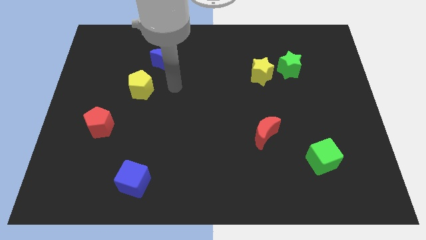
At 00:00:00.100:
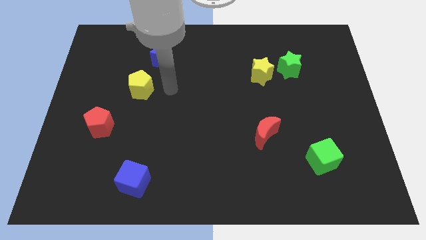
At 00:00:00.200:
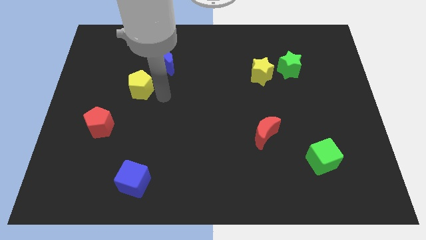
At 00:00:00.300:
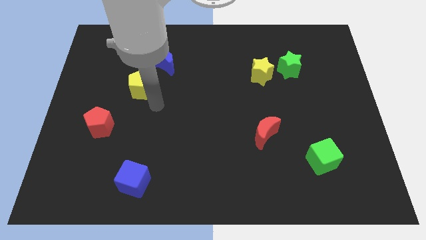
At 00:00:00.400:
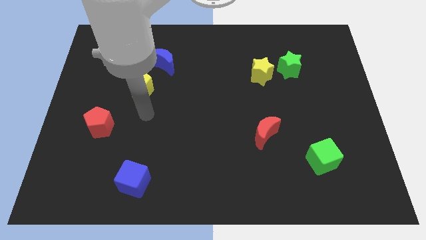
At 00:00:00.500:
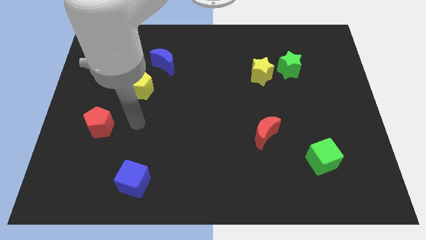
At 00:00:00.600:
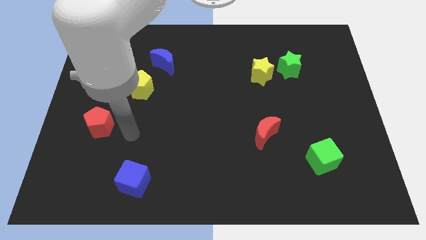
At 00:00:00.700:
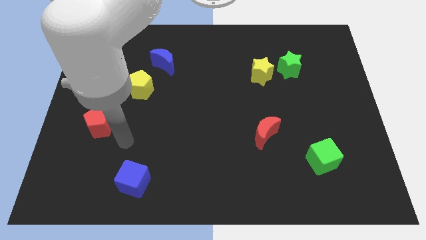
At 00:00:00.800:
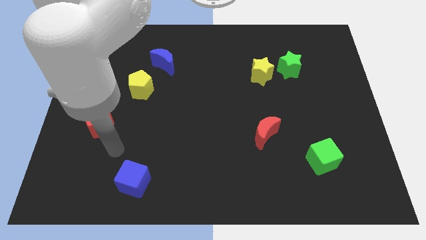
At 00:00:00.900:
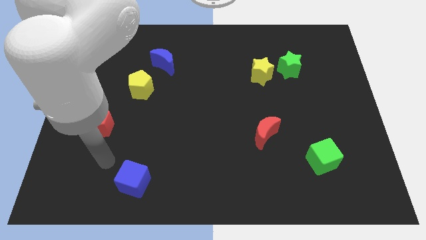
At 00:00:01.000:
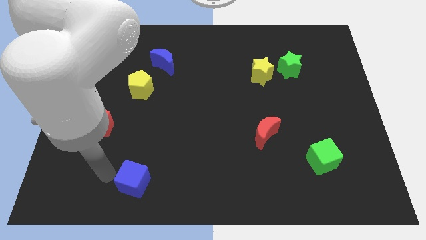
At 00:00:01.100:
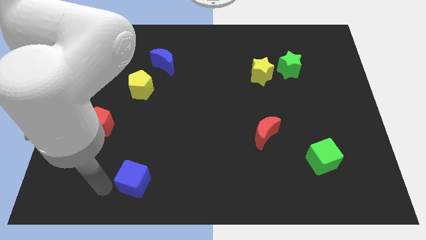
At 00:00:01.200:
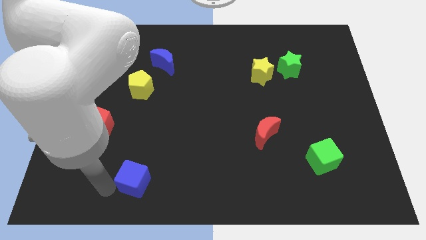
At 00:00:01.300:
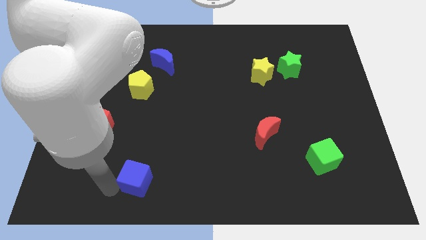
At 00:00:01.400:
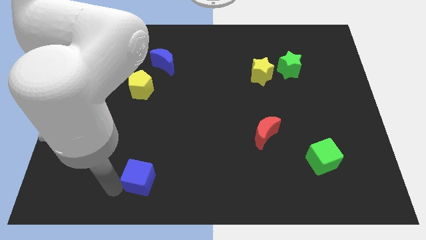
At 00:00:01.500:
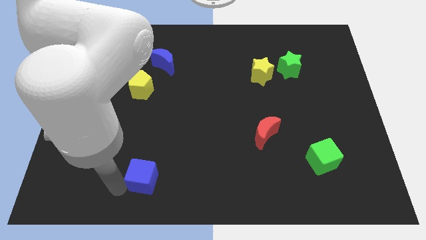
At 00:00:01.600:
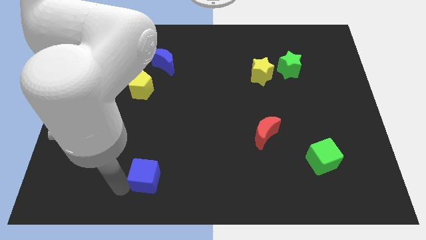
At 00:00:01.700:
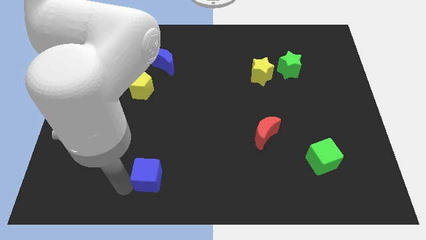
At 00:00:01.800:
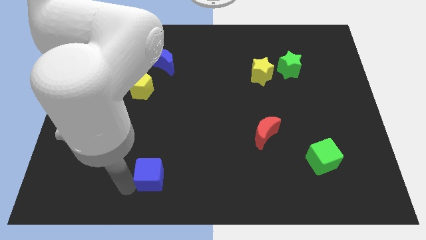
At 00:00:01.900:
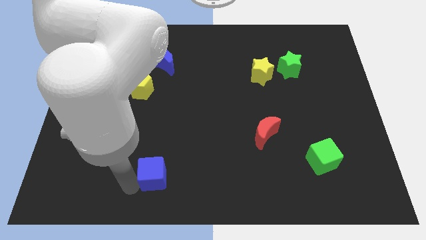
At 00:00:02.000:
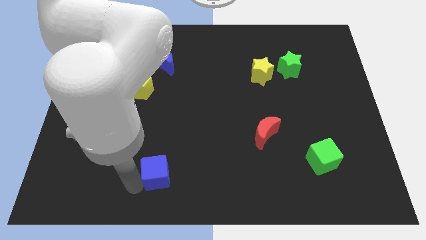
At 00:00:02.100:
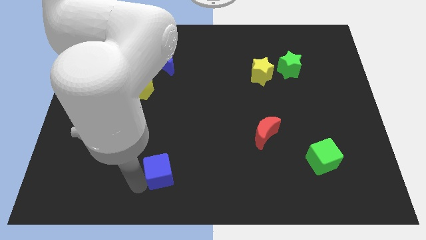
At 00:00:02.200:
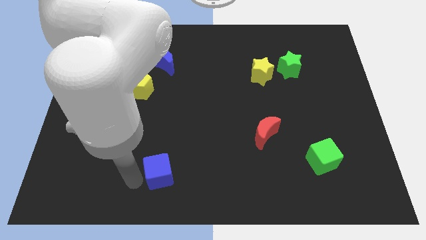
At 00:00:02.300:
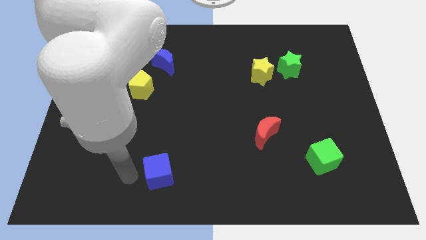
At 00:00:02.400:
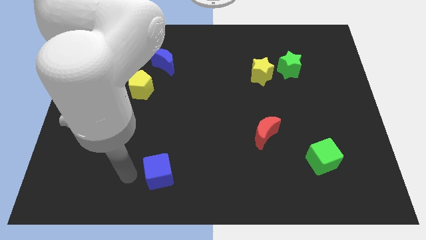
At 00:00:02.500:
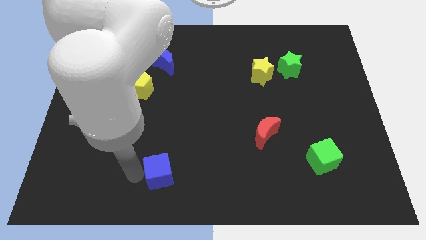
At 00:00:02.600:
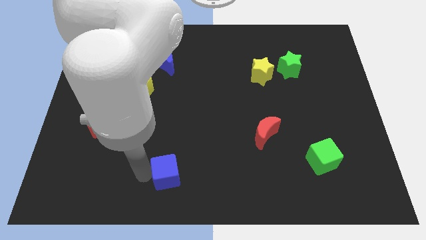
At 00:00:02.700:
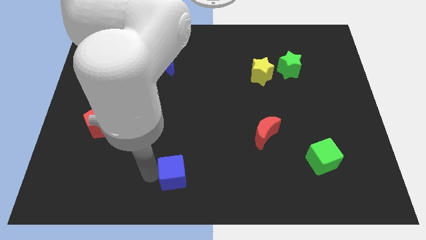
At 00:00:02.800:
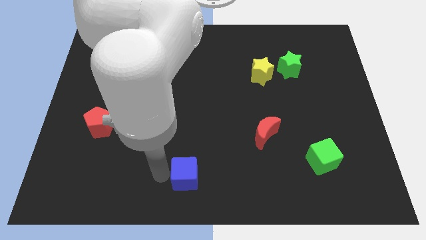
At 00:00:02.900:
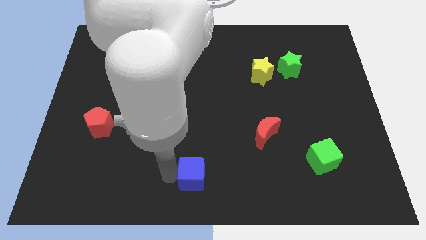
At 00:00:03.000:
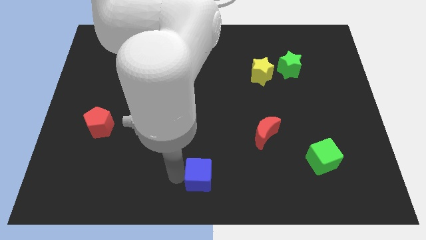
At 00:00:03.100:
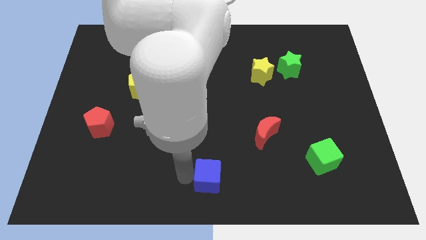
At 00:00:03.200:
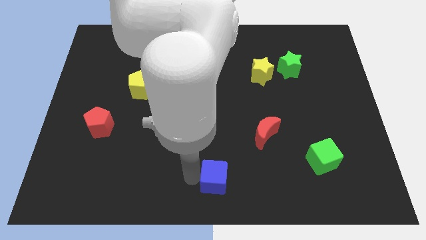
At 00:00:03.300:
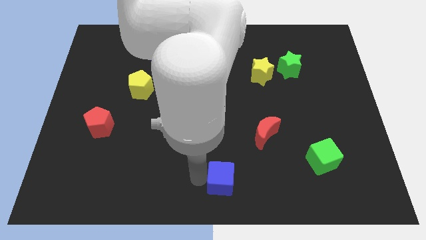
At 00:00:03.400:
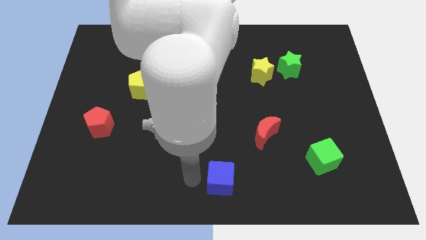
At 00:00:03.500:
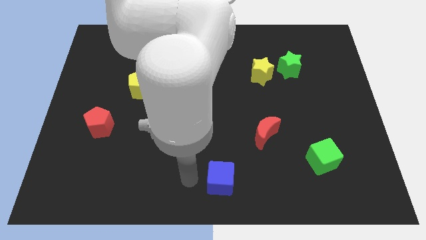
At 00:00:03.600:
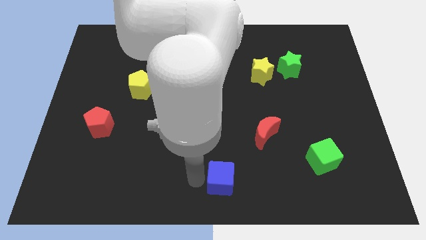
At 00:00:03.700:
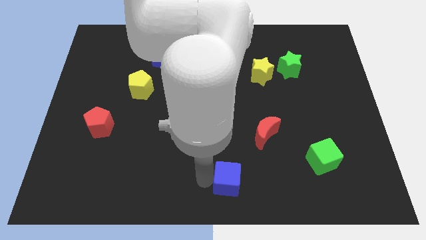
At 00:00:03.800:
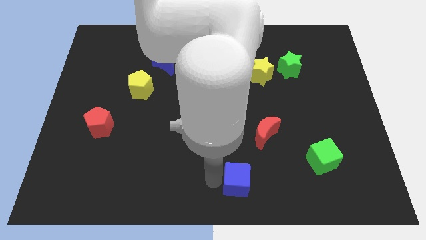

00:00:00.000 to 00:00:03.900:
slide the blue cube right

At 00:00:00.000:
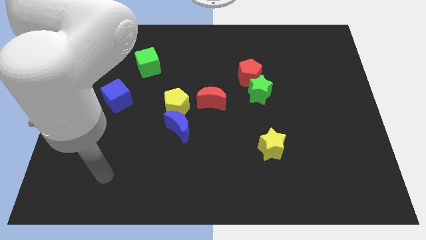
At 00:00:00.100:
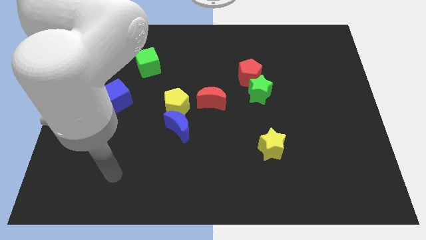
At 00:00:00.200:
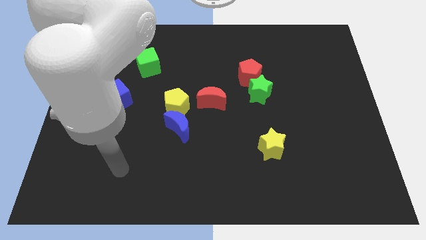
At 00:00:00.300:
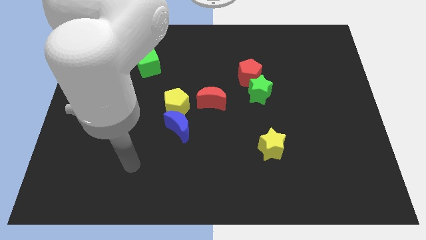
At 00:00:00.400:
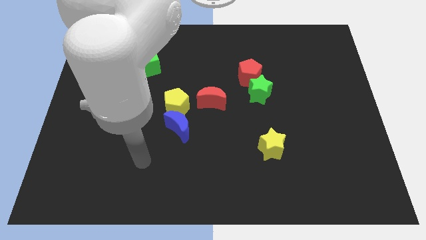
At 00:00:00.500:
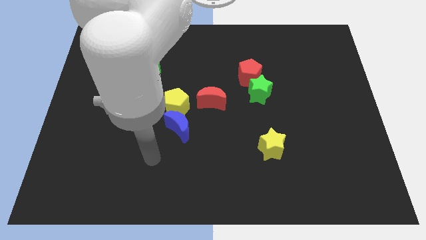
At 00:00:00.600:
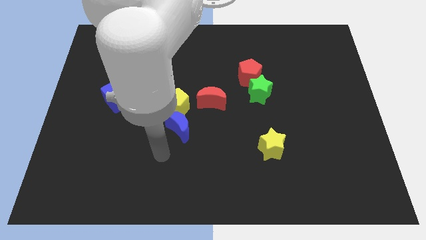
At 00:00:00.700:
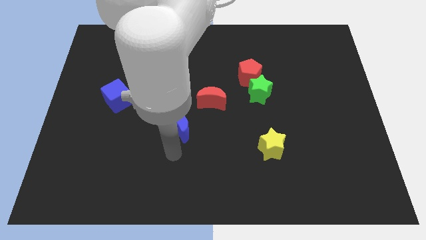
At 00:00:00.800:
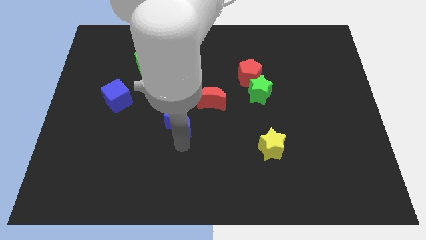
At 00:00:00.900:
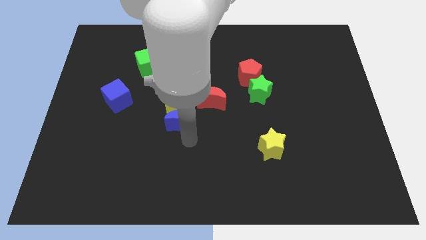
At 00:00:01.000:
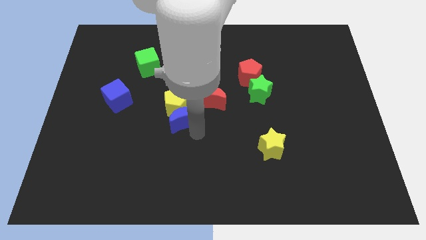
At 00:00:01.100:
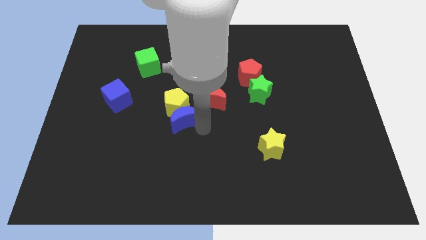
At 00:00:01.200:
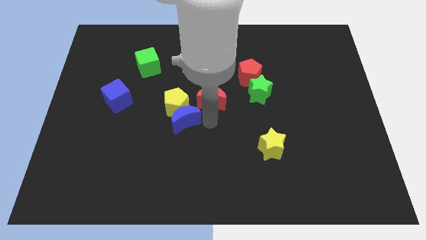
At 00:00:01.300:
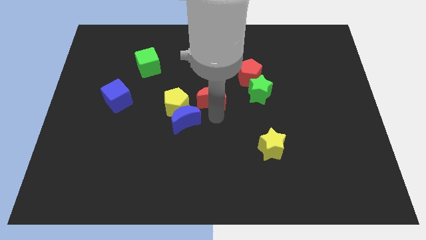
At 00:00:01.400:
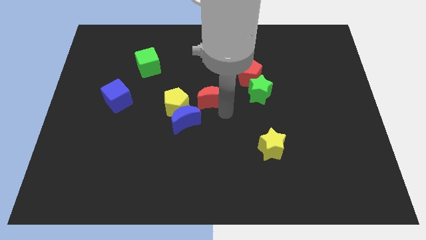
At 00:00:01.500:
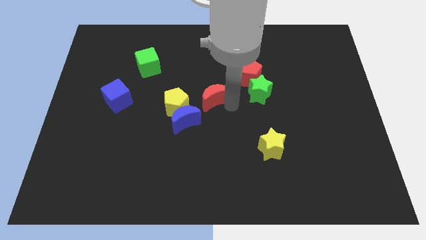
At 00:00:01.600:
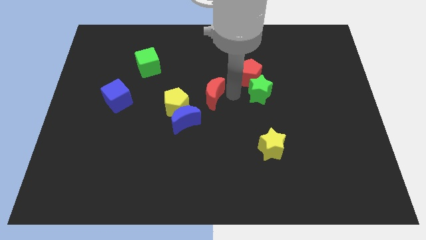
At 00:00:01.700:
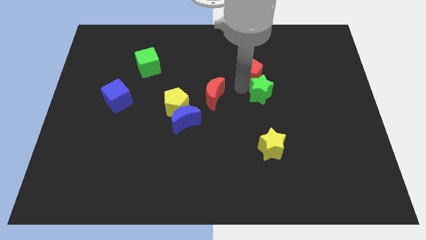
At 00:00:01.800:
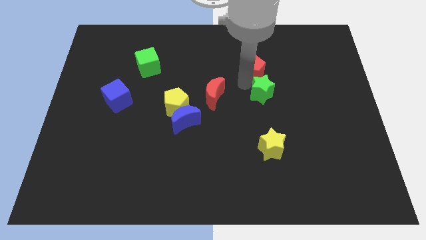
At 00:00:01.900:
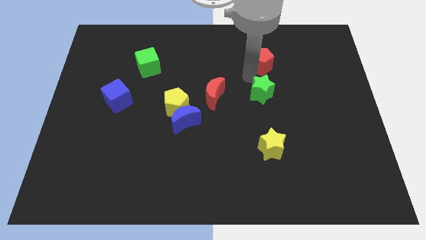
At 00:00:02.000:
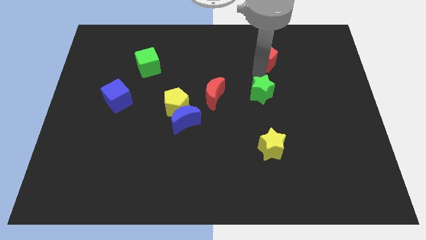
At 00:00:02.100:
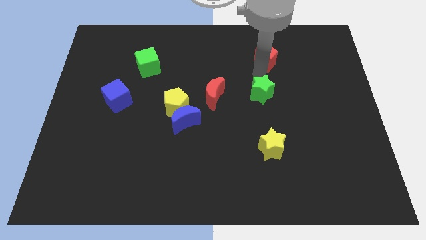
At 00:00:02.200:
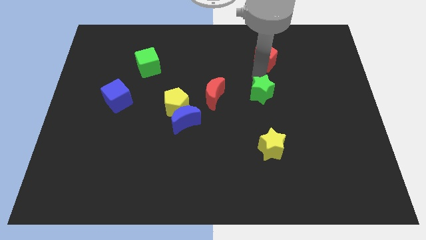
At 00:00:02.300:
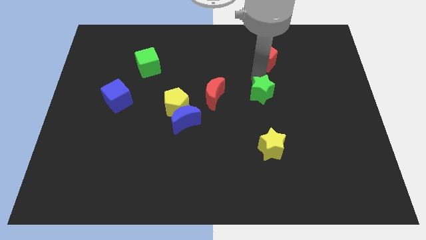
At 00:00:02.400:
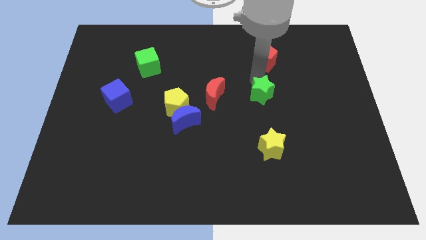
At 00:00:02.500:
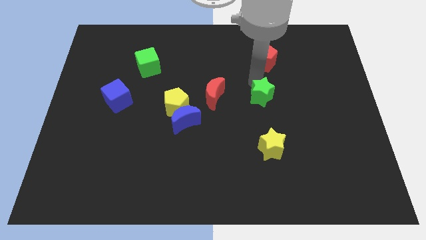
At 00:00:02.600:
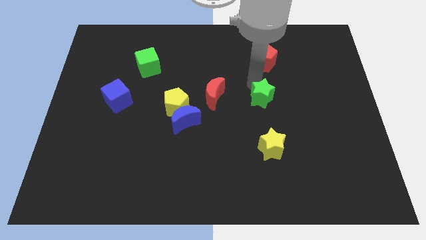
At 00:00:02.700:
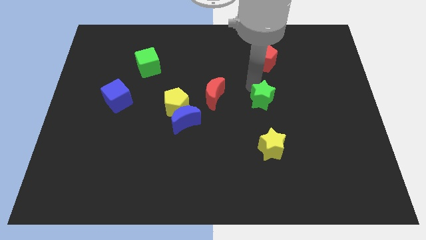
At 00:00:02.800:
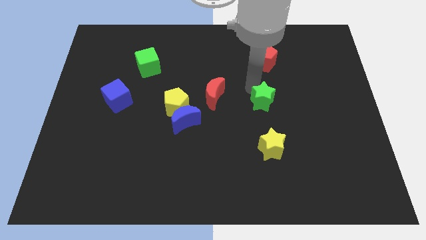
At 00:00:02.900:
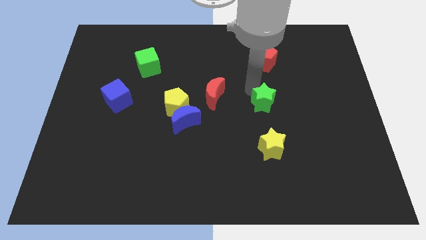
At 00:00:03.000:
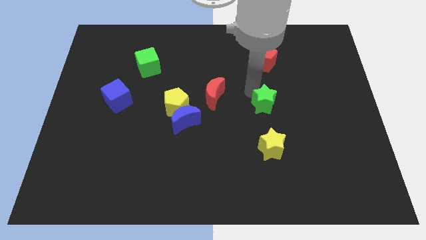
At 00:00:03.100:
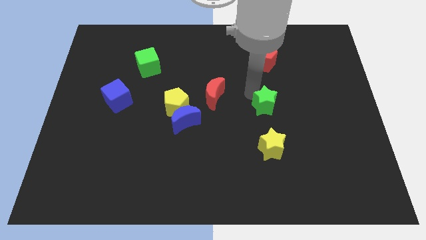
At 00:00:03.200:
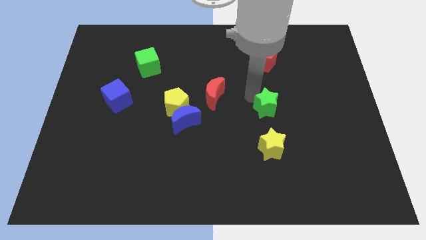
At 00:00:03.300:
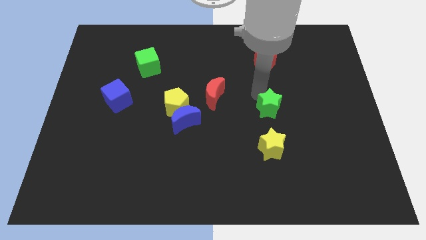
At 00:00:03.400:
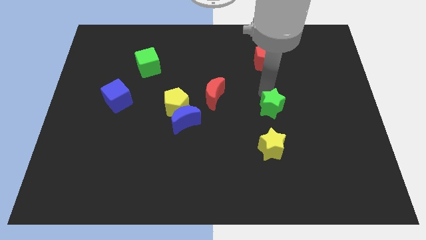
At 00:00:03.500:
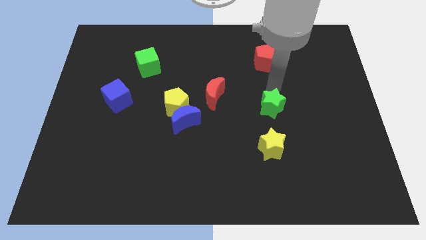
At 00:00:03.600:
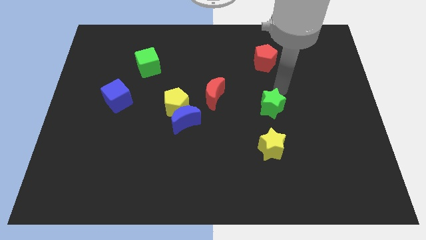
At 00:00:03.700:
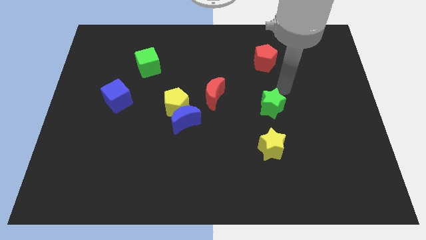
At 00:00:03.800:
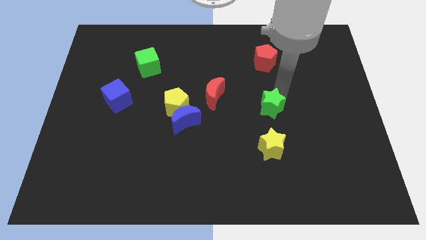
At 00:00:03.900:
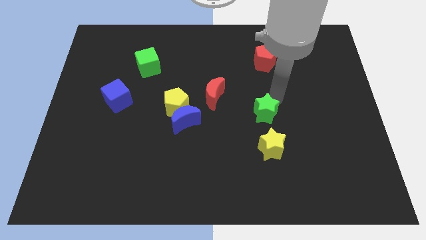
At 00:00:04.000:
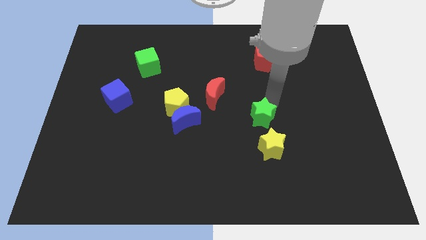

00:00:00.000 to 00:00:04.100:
move the green star down slightly

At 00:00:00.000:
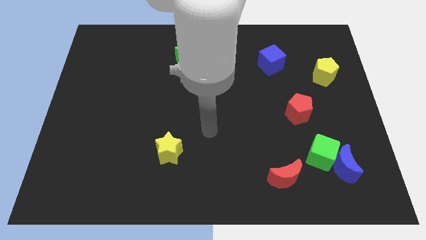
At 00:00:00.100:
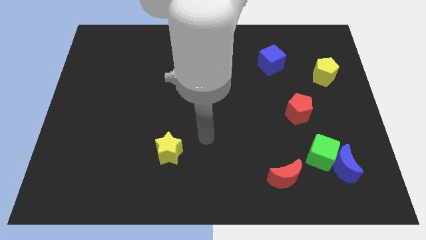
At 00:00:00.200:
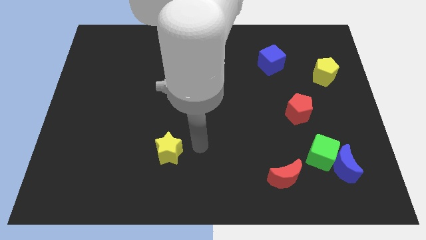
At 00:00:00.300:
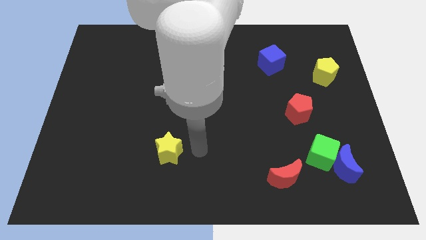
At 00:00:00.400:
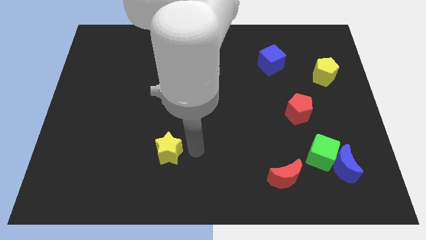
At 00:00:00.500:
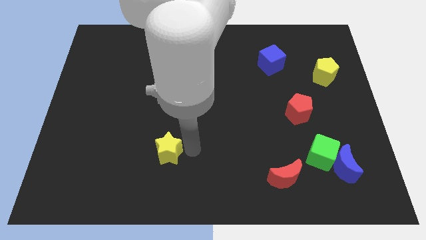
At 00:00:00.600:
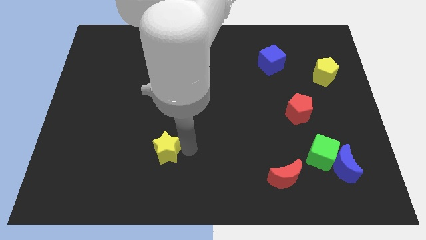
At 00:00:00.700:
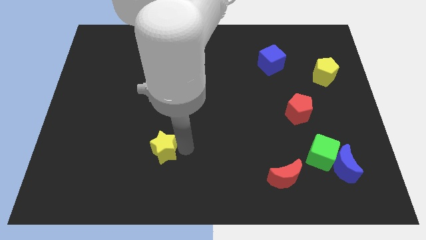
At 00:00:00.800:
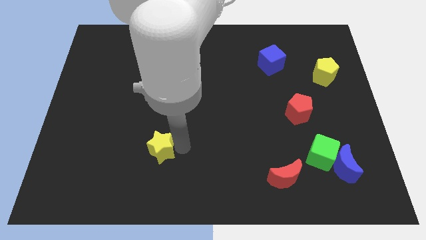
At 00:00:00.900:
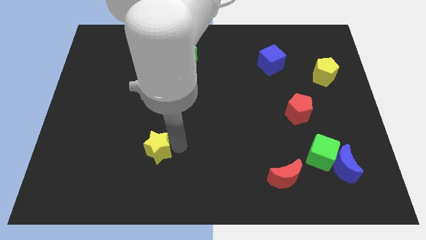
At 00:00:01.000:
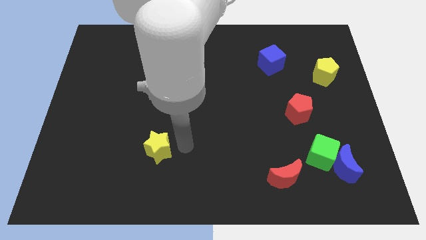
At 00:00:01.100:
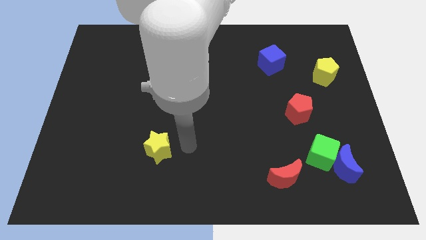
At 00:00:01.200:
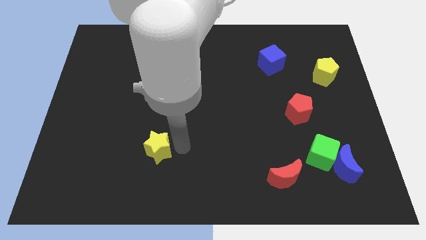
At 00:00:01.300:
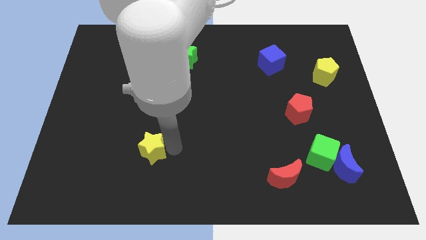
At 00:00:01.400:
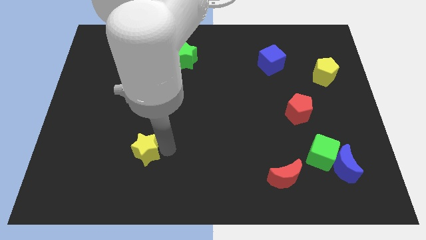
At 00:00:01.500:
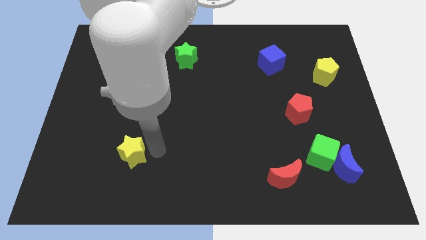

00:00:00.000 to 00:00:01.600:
slide the yellow star to the left a little bit
